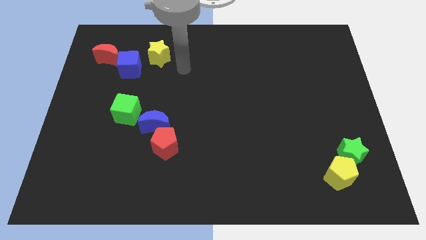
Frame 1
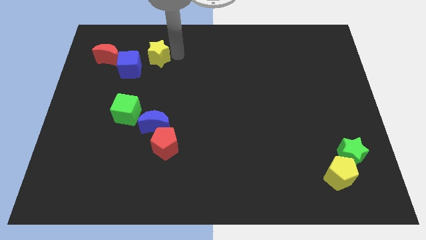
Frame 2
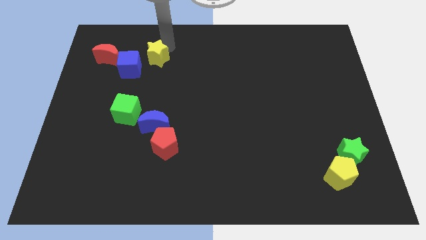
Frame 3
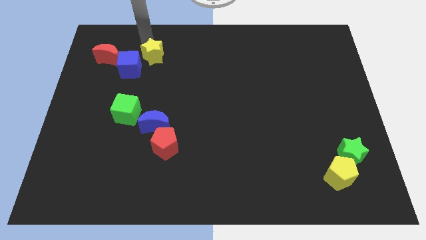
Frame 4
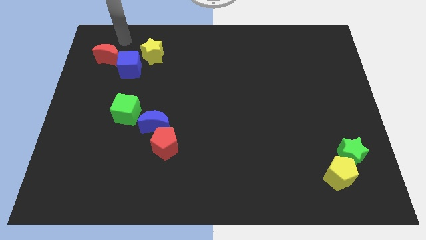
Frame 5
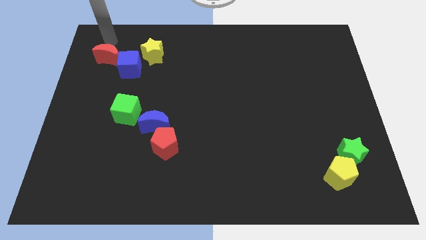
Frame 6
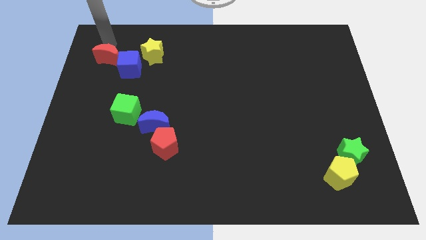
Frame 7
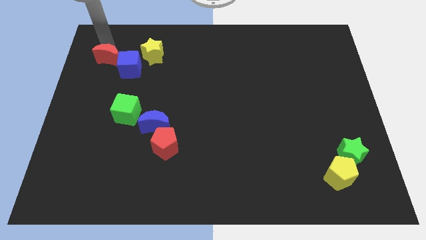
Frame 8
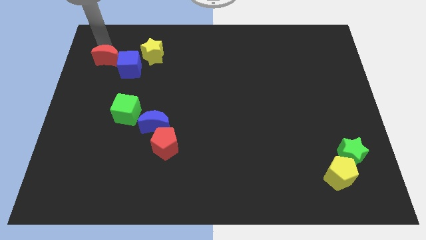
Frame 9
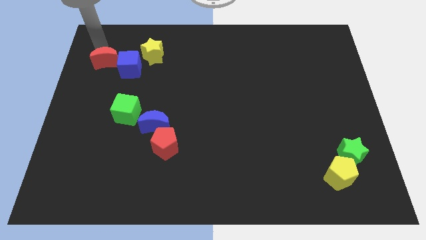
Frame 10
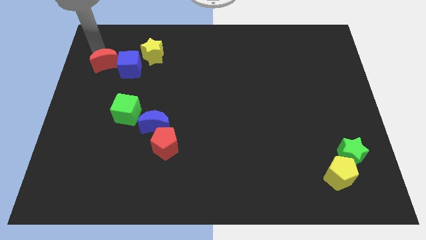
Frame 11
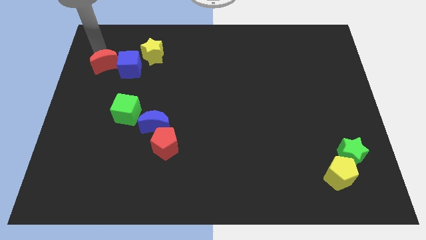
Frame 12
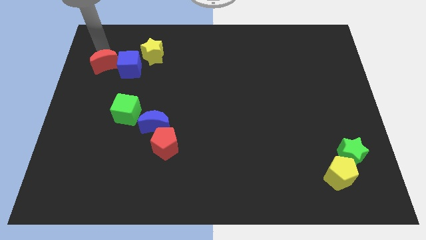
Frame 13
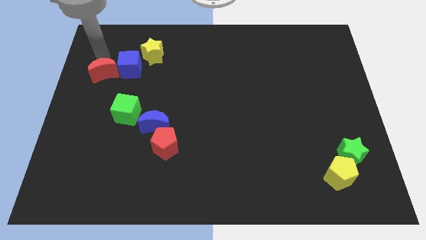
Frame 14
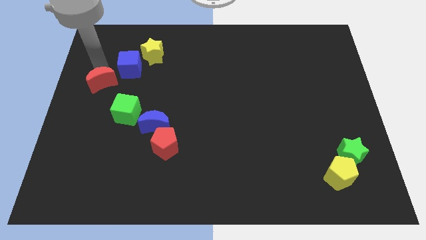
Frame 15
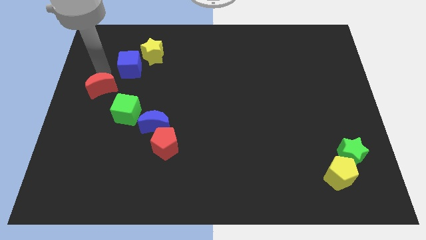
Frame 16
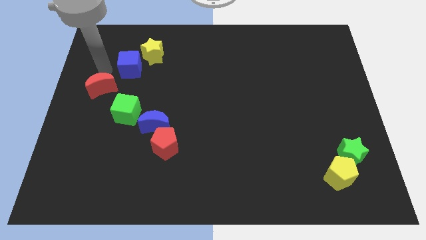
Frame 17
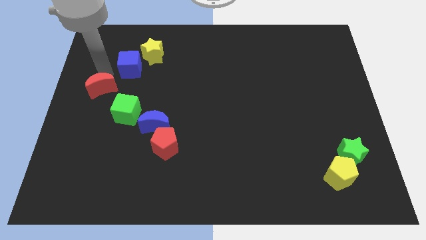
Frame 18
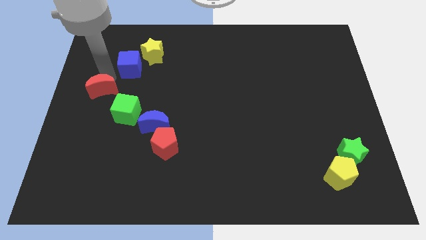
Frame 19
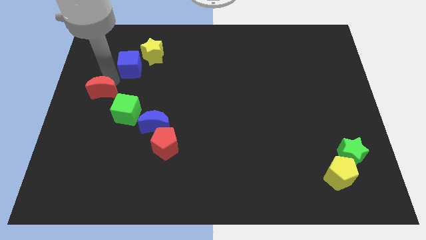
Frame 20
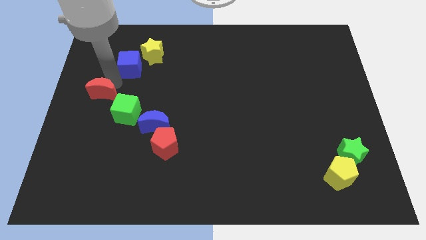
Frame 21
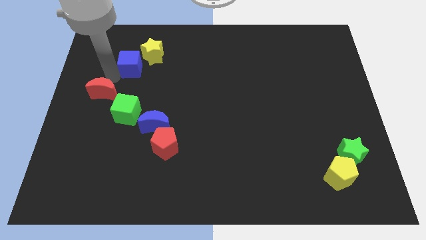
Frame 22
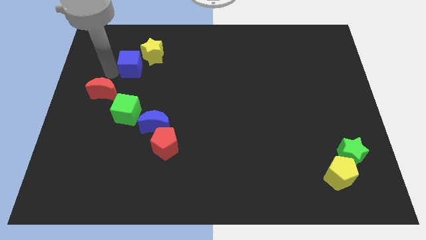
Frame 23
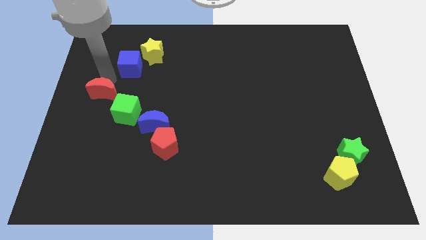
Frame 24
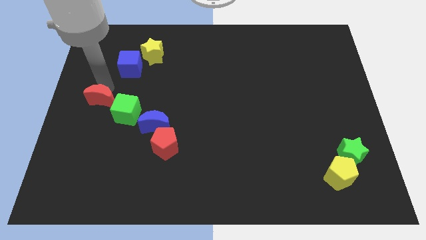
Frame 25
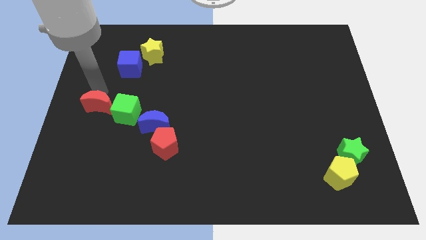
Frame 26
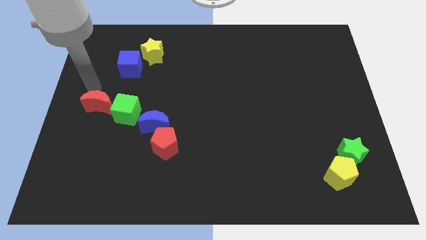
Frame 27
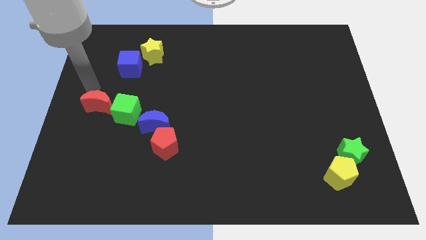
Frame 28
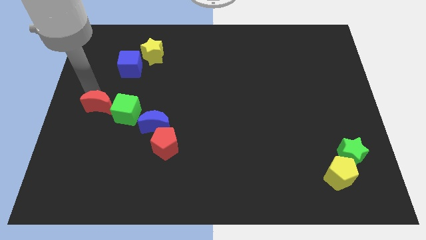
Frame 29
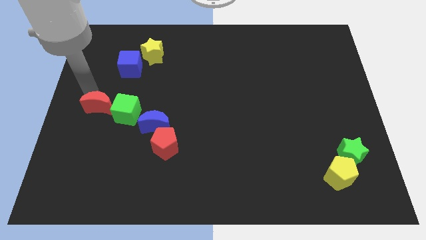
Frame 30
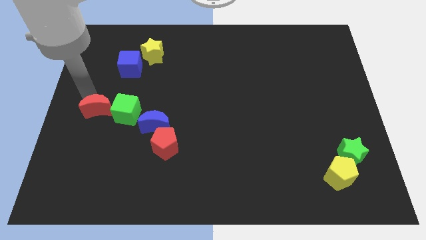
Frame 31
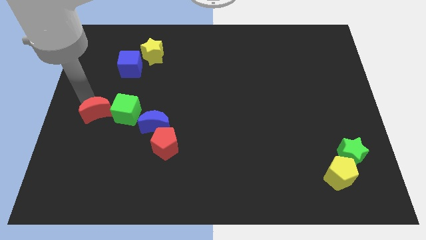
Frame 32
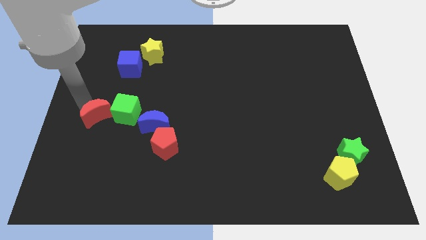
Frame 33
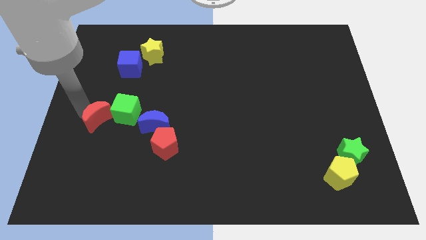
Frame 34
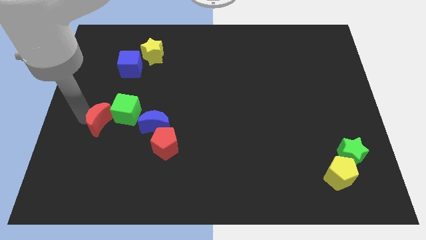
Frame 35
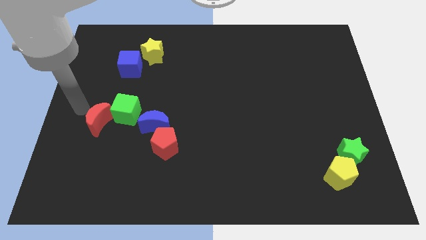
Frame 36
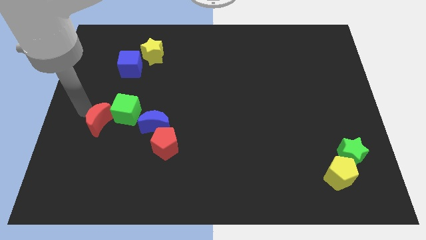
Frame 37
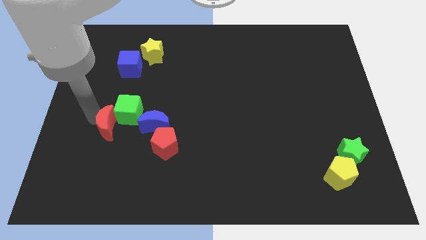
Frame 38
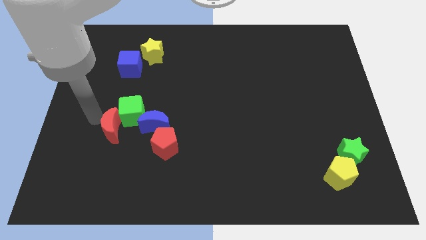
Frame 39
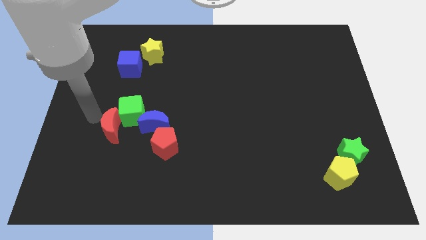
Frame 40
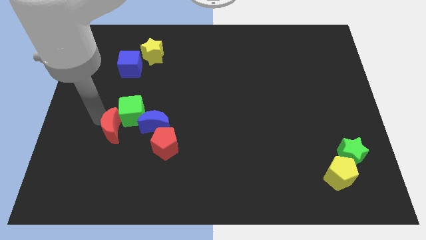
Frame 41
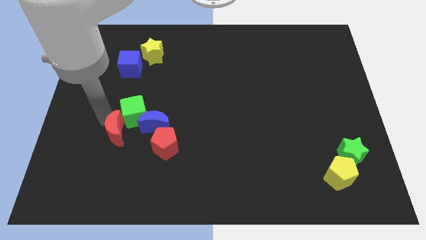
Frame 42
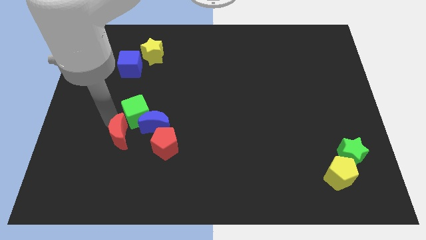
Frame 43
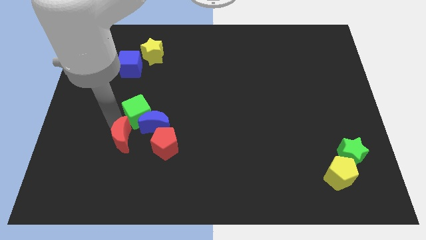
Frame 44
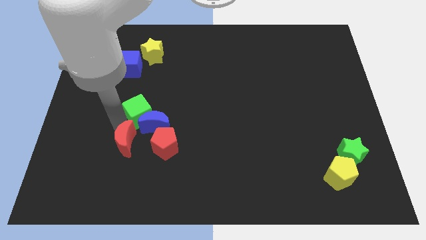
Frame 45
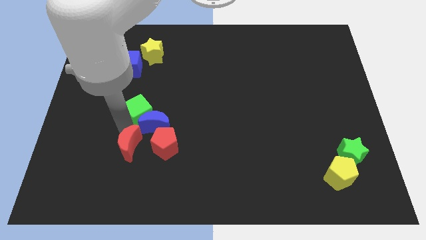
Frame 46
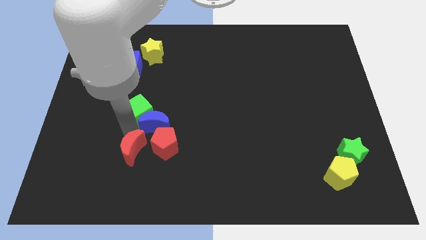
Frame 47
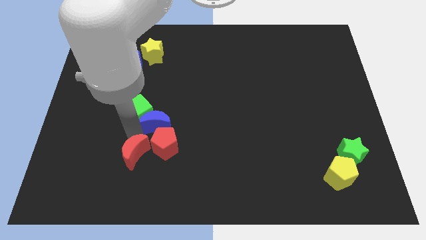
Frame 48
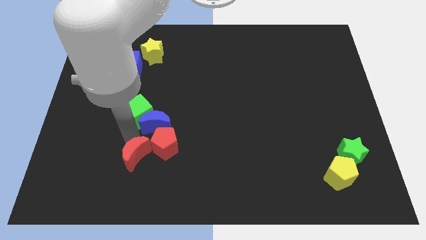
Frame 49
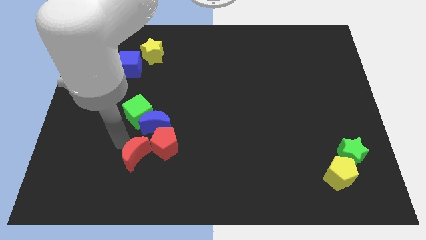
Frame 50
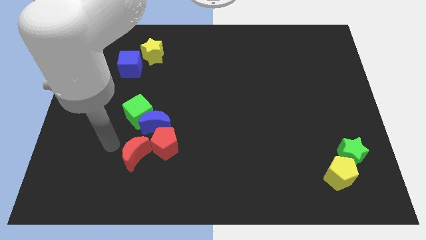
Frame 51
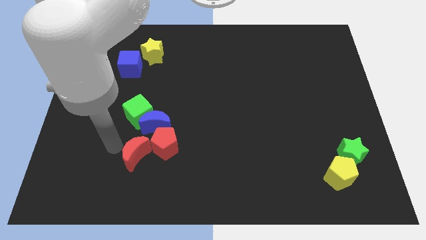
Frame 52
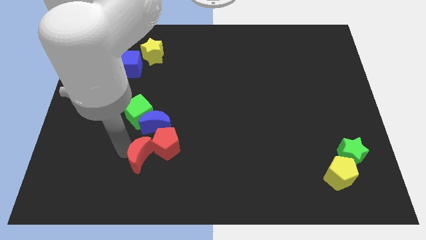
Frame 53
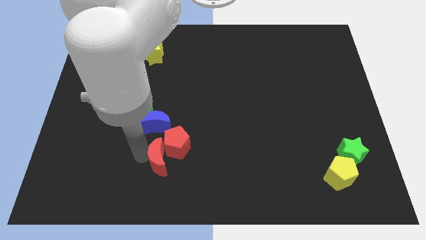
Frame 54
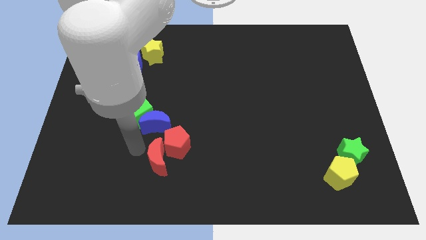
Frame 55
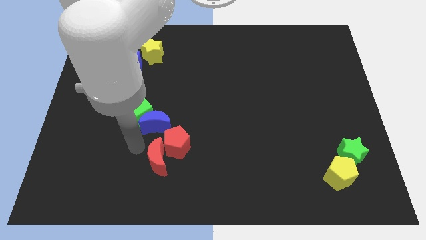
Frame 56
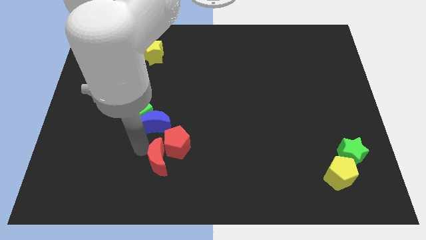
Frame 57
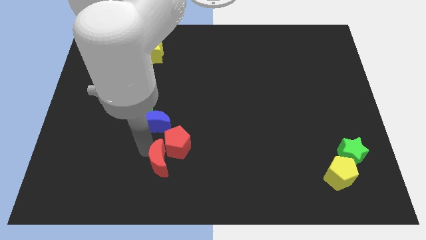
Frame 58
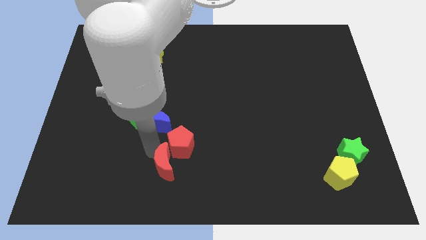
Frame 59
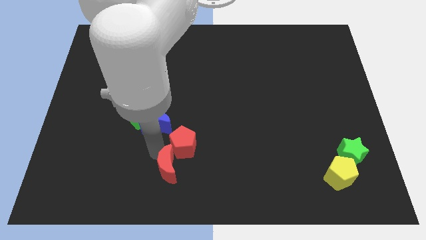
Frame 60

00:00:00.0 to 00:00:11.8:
slide the red moon to the bottom
